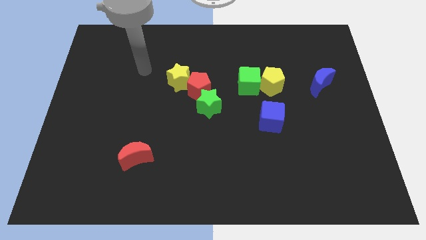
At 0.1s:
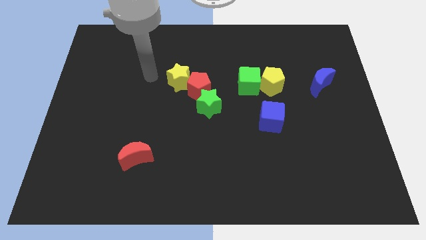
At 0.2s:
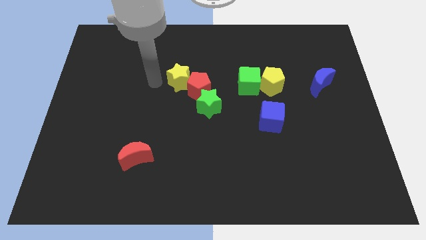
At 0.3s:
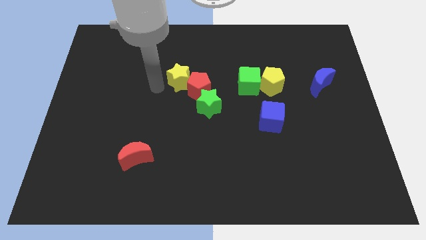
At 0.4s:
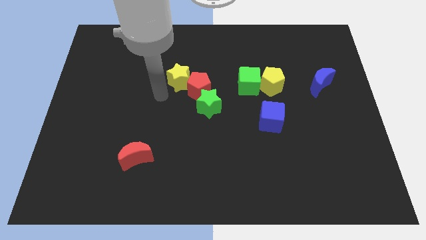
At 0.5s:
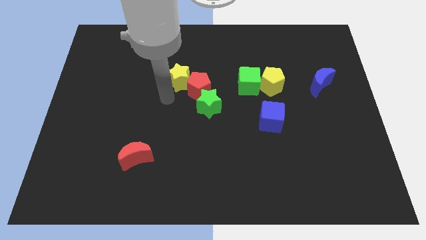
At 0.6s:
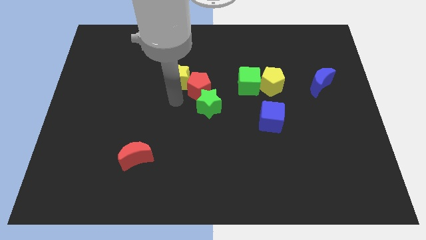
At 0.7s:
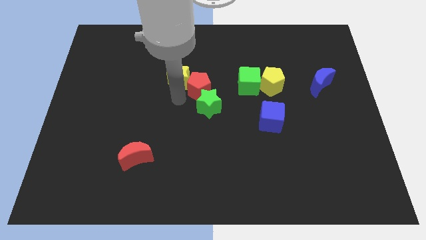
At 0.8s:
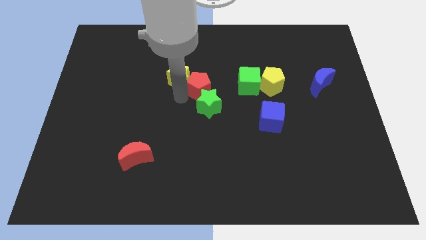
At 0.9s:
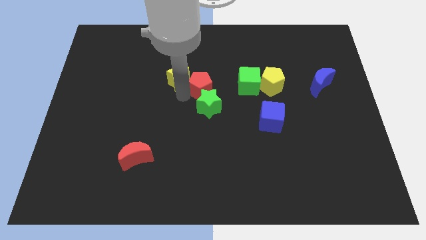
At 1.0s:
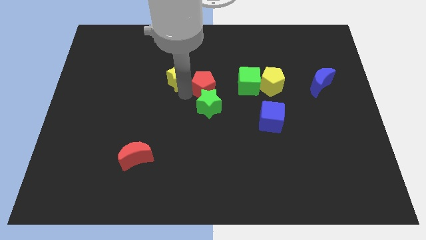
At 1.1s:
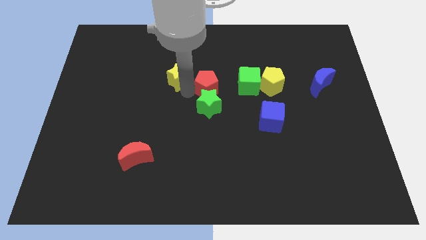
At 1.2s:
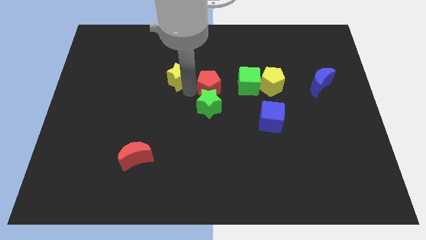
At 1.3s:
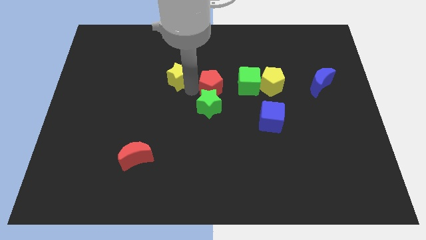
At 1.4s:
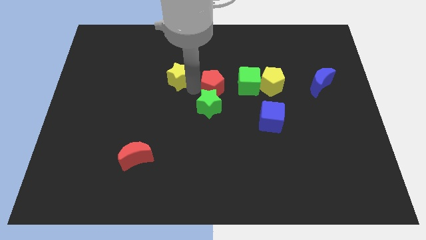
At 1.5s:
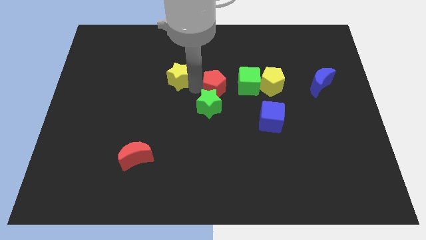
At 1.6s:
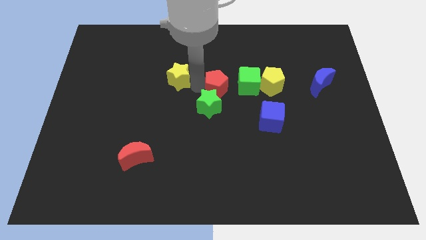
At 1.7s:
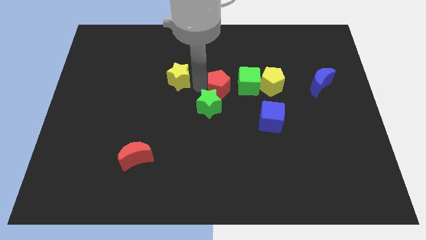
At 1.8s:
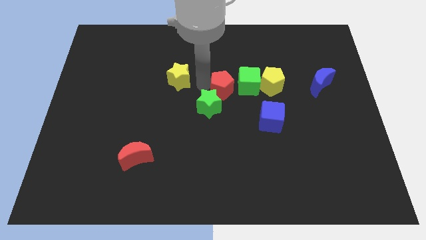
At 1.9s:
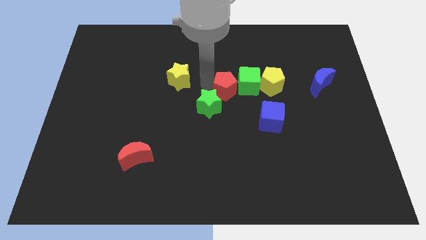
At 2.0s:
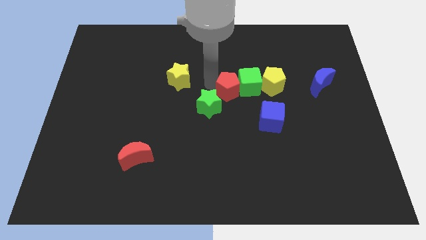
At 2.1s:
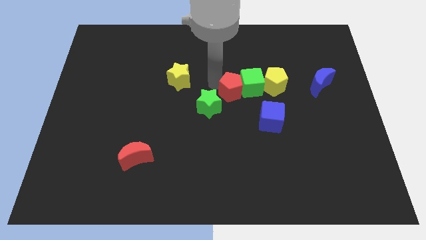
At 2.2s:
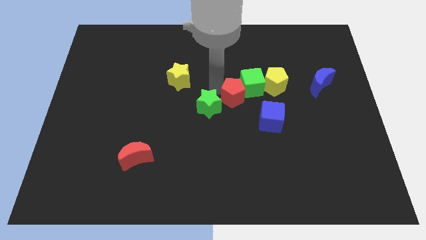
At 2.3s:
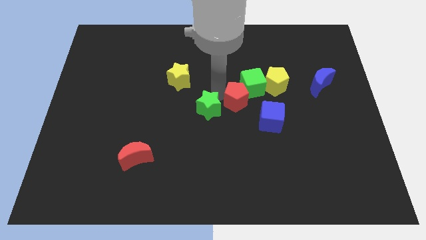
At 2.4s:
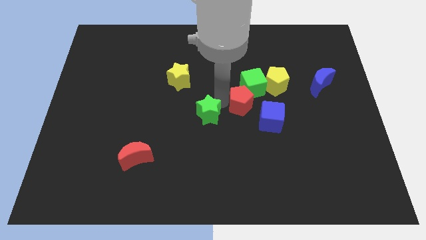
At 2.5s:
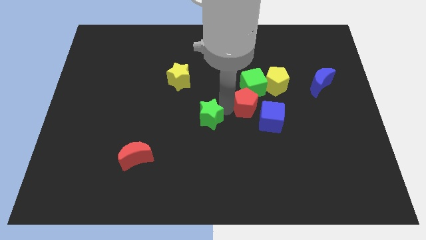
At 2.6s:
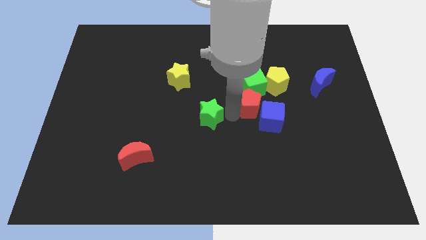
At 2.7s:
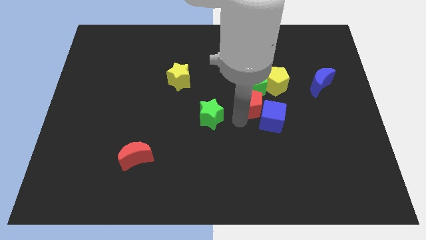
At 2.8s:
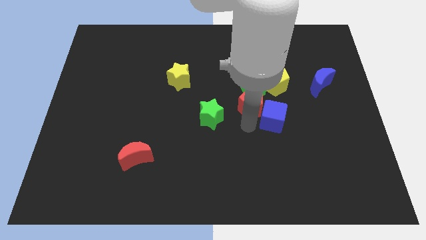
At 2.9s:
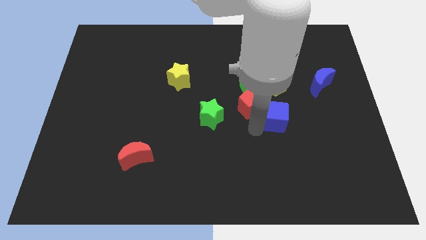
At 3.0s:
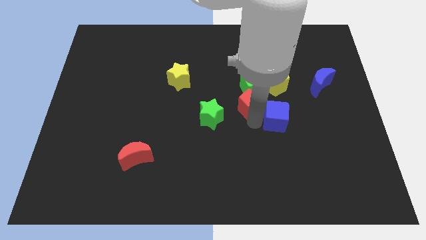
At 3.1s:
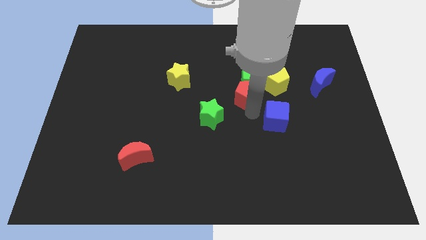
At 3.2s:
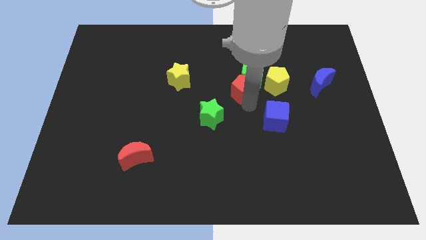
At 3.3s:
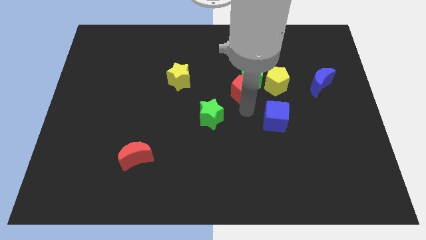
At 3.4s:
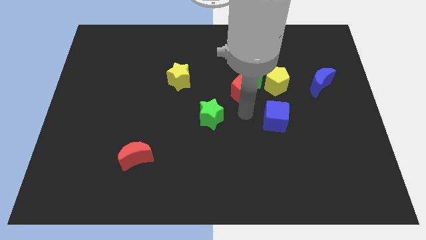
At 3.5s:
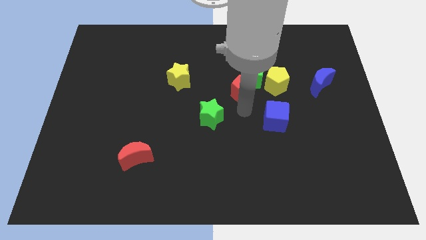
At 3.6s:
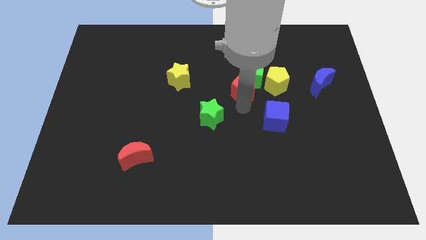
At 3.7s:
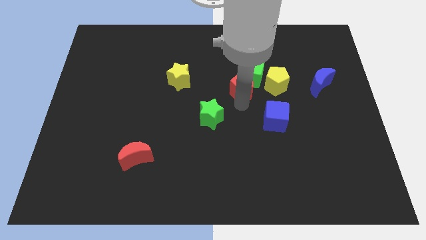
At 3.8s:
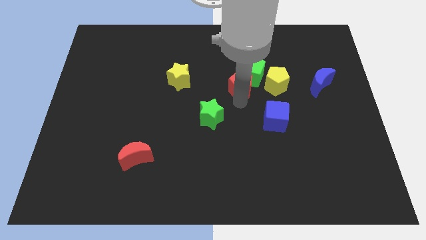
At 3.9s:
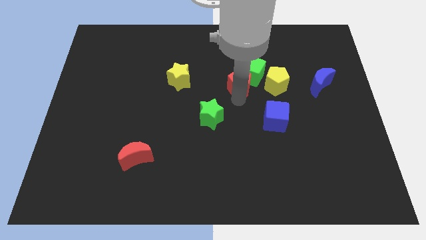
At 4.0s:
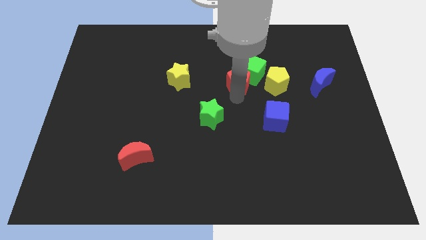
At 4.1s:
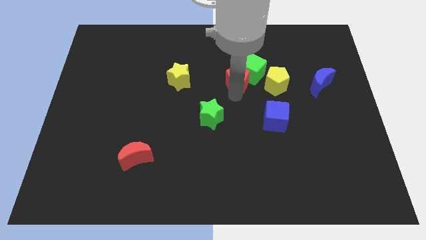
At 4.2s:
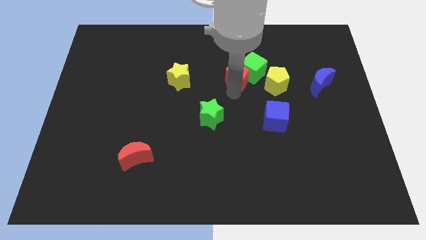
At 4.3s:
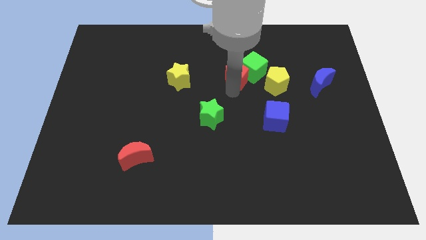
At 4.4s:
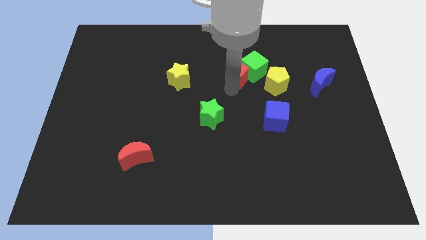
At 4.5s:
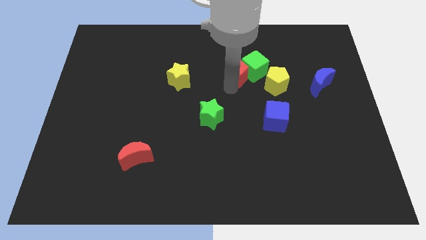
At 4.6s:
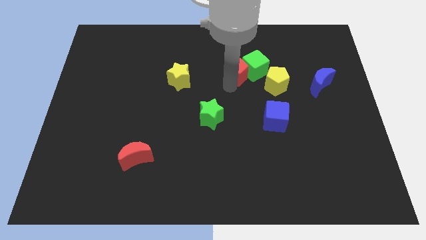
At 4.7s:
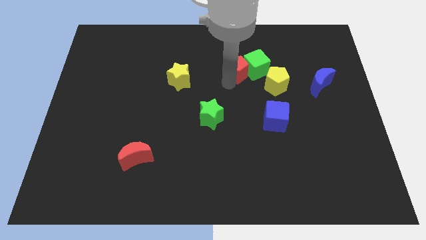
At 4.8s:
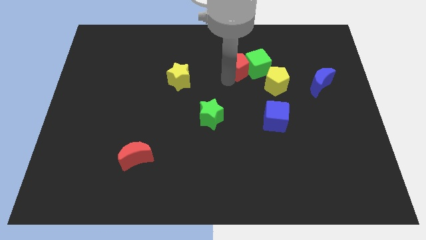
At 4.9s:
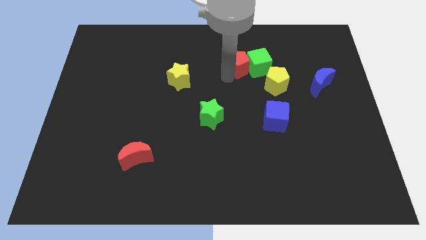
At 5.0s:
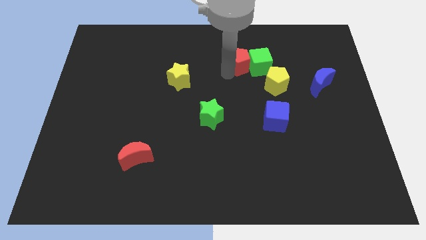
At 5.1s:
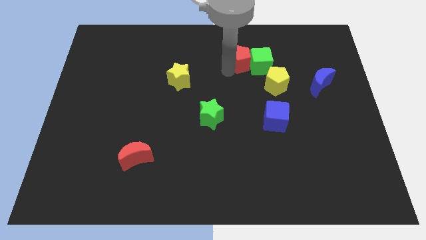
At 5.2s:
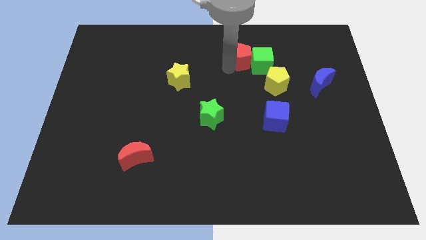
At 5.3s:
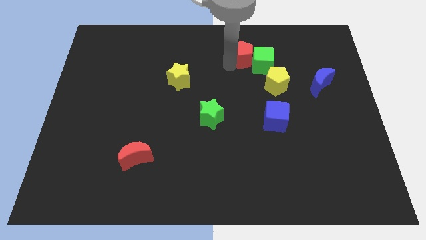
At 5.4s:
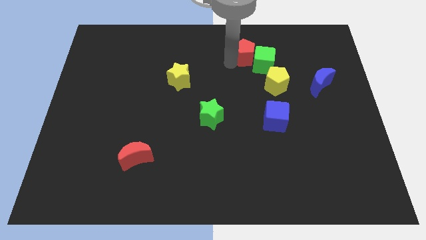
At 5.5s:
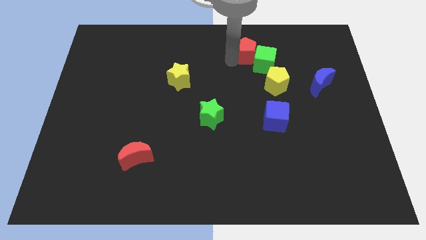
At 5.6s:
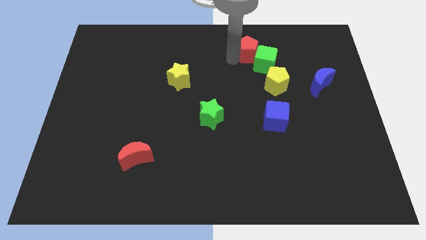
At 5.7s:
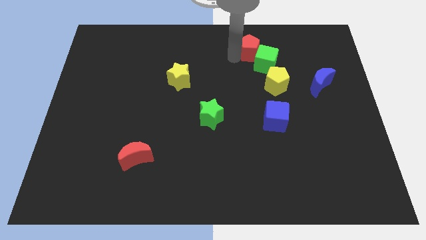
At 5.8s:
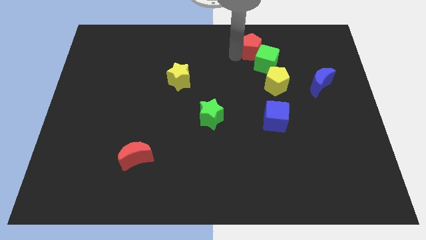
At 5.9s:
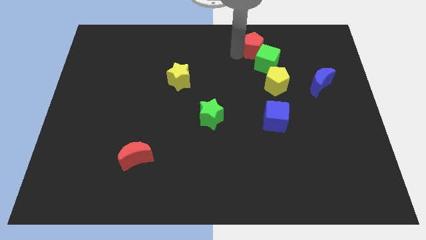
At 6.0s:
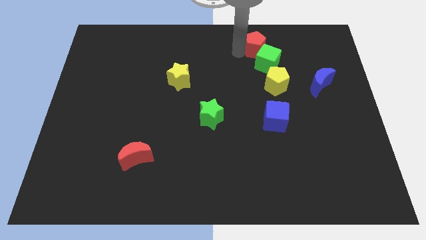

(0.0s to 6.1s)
push the red pentagon to the top side of the yellow pentagon

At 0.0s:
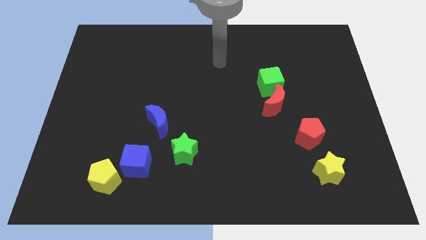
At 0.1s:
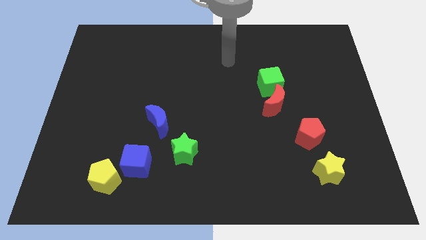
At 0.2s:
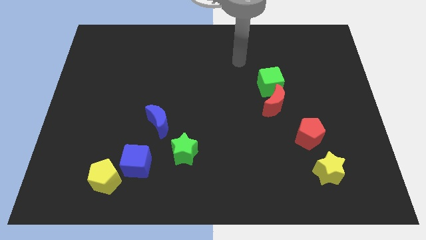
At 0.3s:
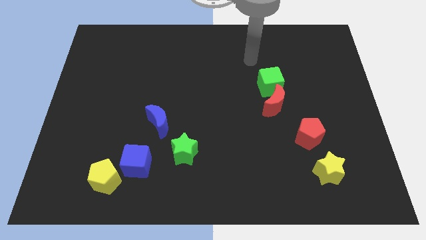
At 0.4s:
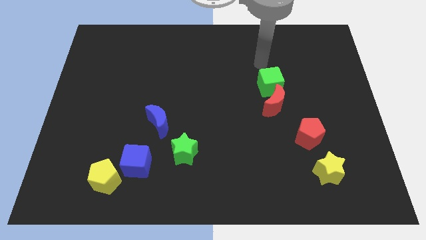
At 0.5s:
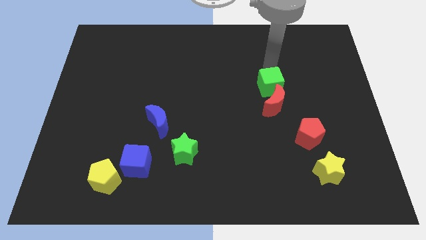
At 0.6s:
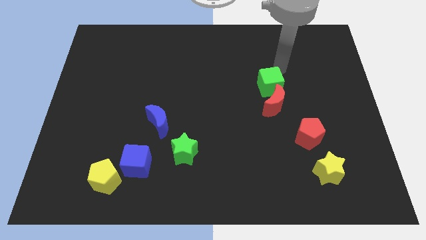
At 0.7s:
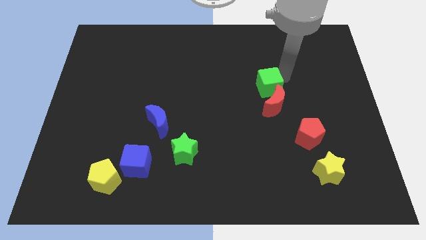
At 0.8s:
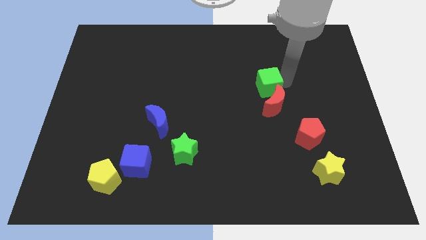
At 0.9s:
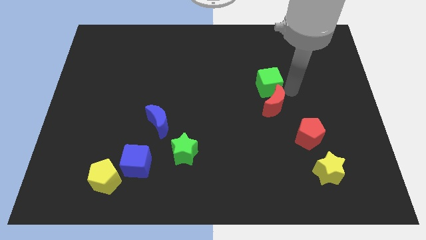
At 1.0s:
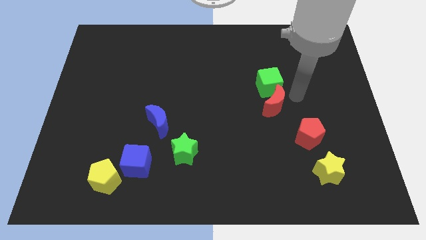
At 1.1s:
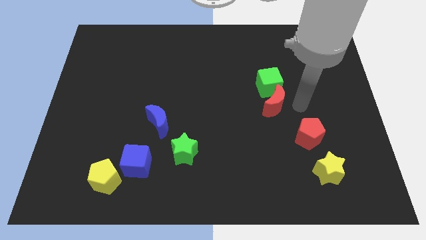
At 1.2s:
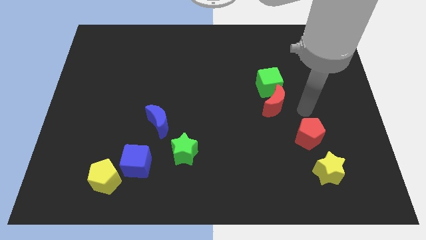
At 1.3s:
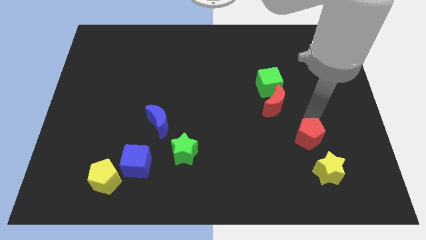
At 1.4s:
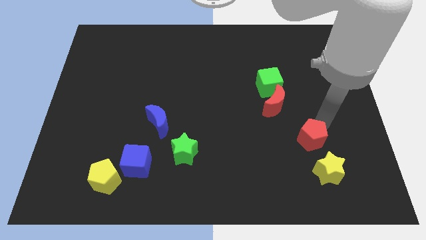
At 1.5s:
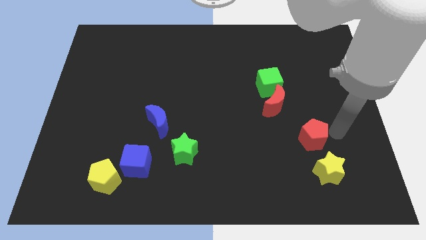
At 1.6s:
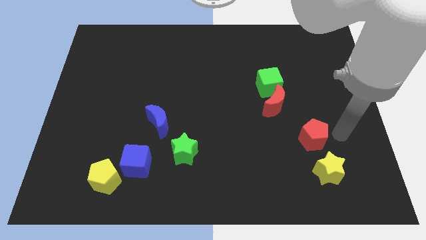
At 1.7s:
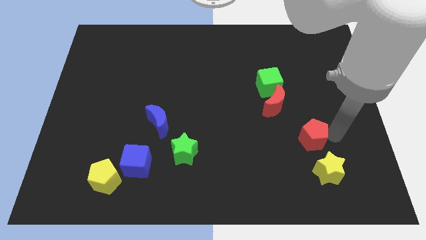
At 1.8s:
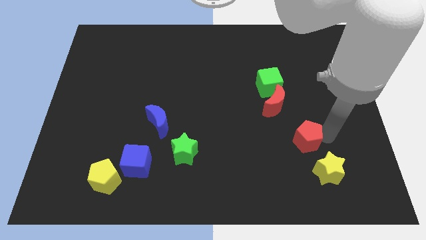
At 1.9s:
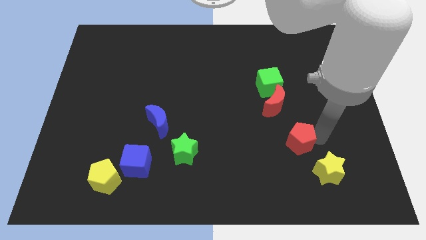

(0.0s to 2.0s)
slide the red pentagon to the bottom of the red moon
